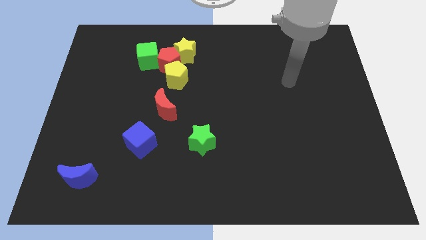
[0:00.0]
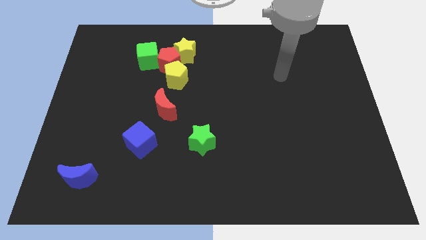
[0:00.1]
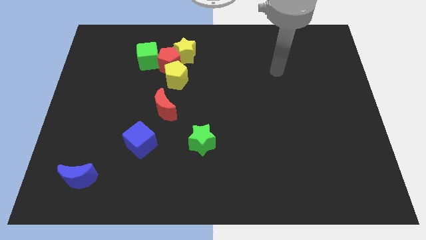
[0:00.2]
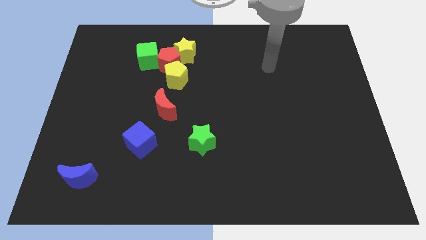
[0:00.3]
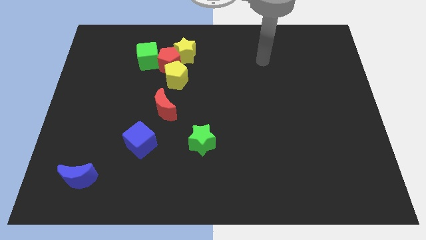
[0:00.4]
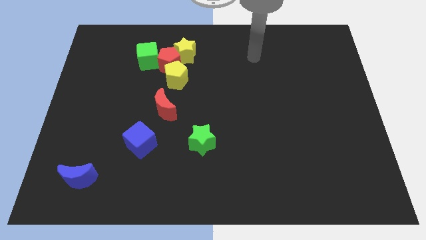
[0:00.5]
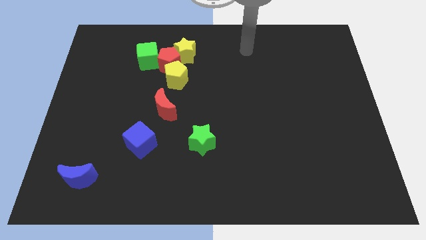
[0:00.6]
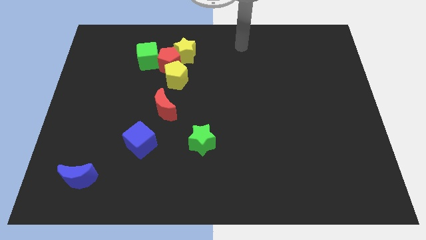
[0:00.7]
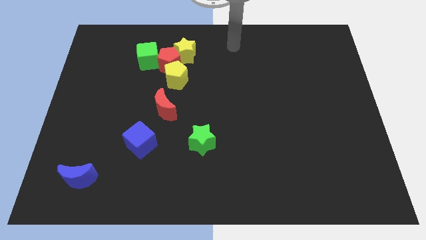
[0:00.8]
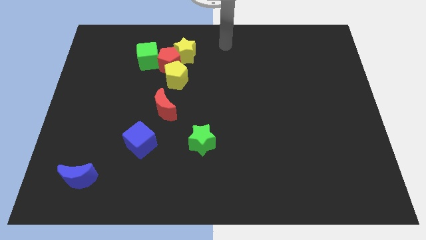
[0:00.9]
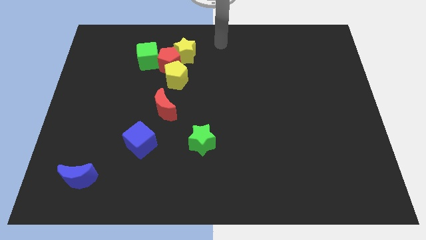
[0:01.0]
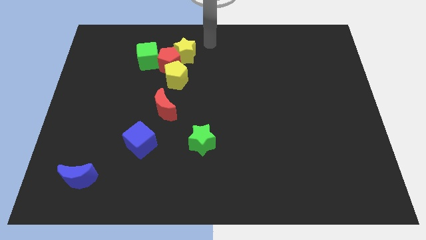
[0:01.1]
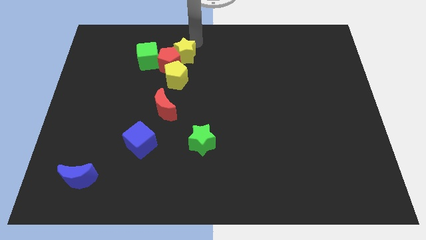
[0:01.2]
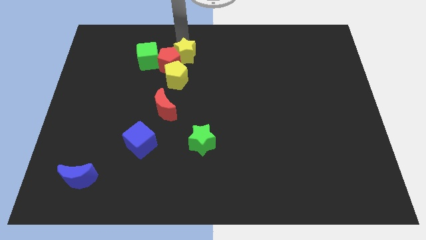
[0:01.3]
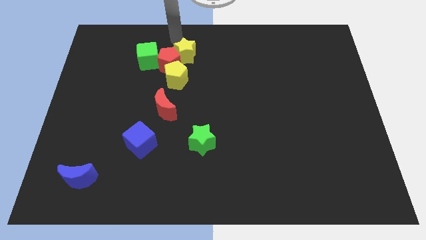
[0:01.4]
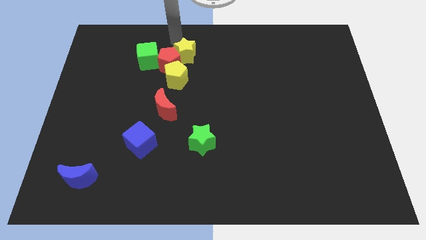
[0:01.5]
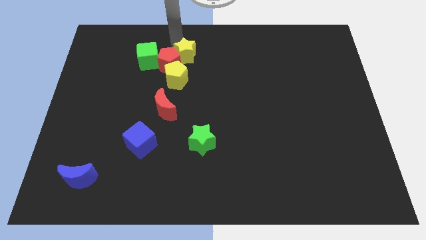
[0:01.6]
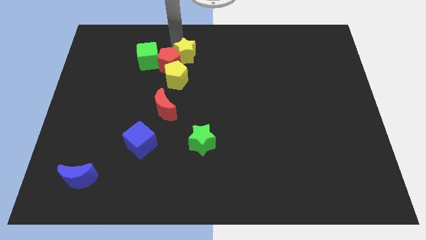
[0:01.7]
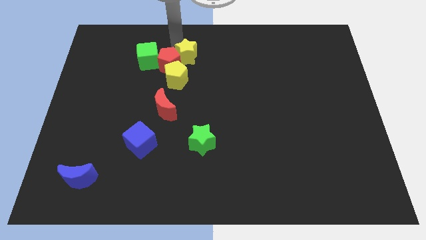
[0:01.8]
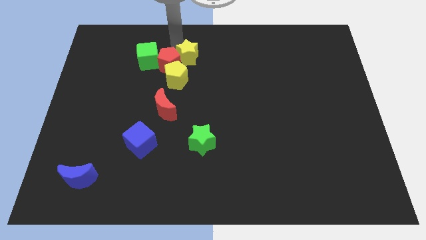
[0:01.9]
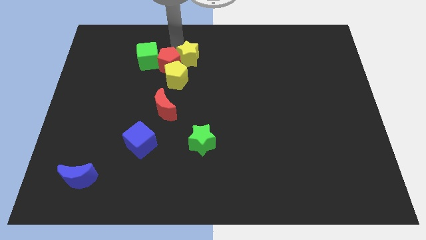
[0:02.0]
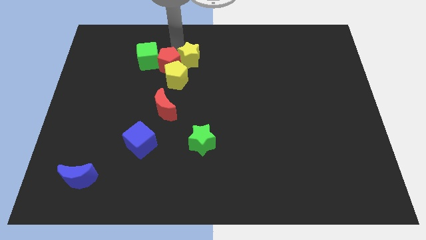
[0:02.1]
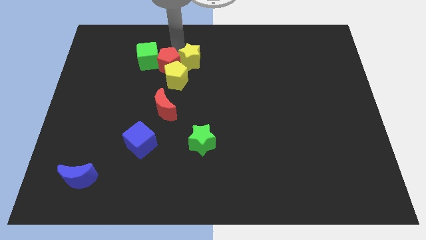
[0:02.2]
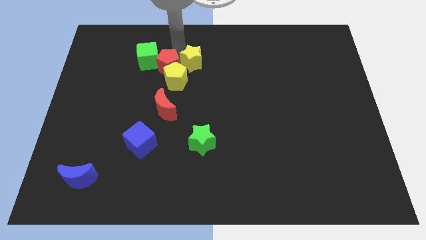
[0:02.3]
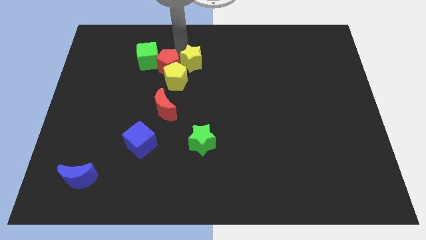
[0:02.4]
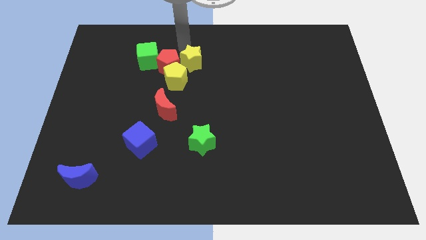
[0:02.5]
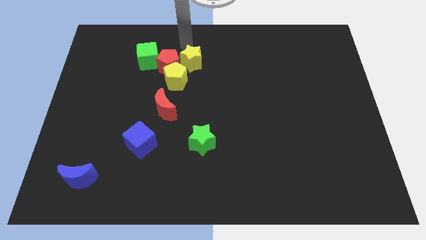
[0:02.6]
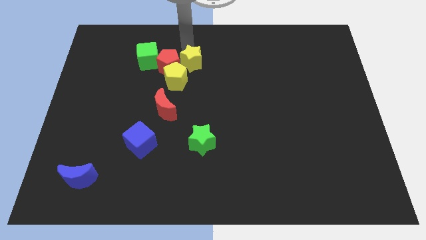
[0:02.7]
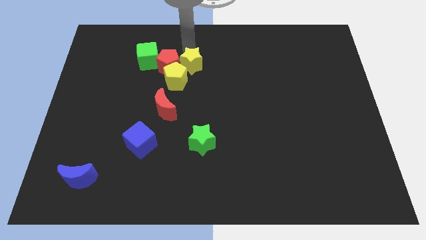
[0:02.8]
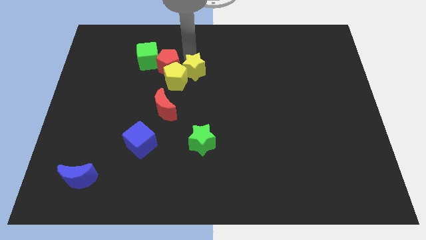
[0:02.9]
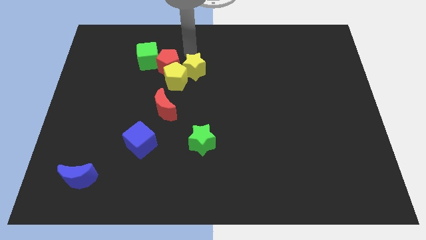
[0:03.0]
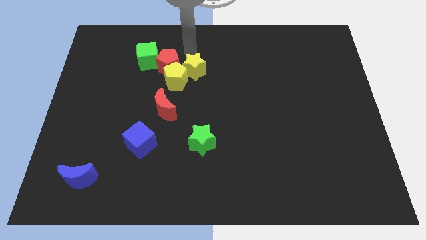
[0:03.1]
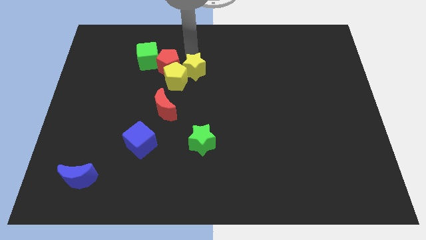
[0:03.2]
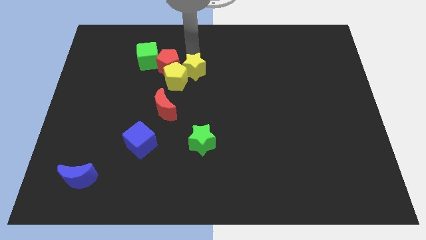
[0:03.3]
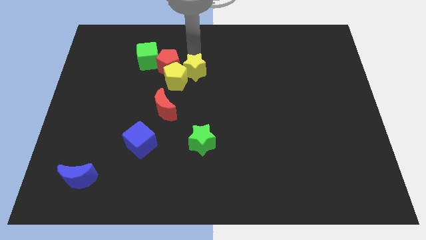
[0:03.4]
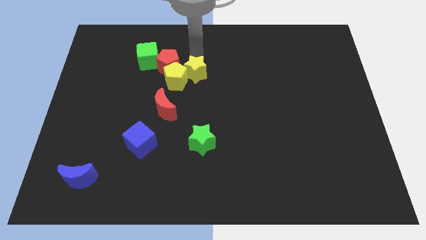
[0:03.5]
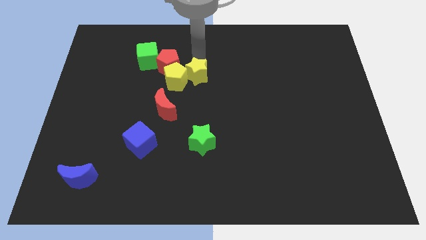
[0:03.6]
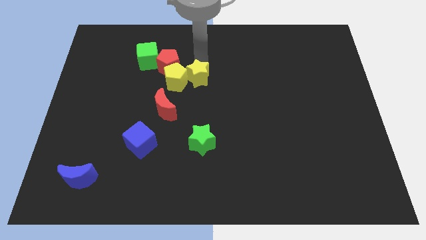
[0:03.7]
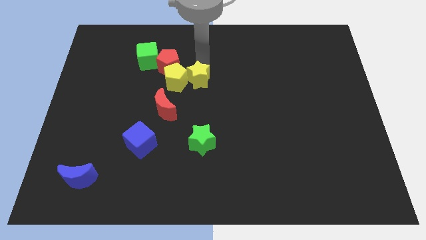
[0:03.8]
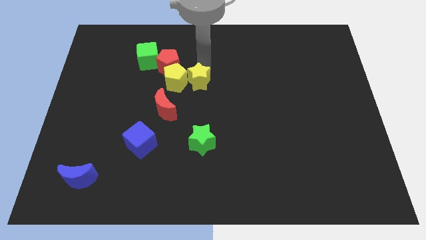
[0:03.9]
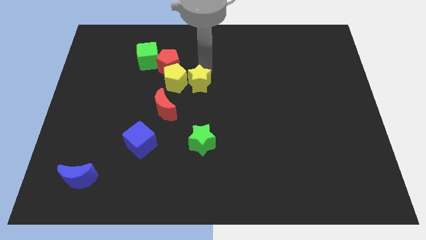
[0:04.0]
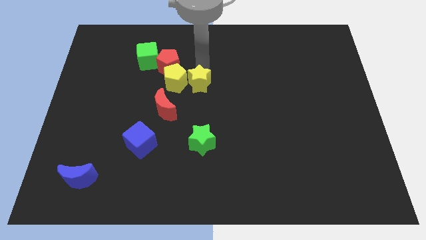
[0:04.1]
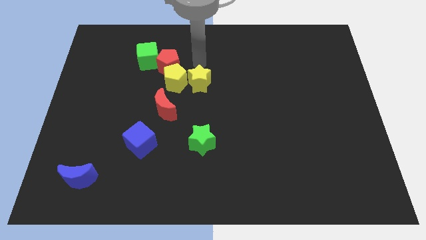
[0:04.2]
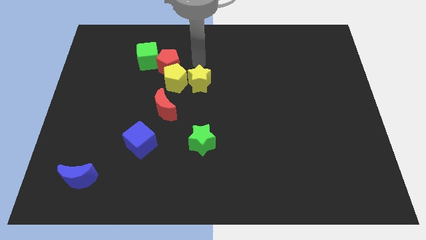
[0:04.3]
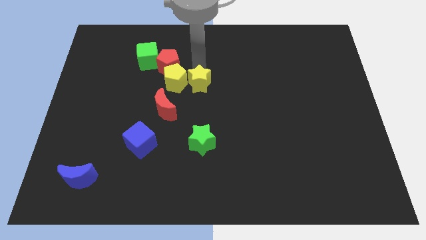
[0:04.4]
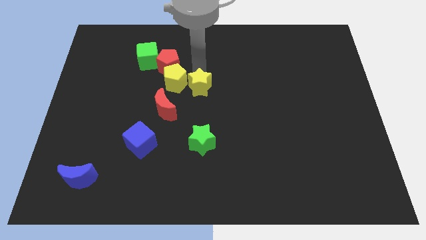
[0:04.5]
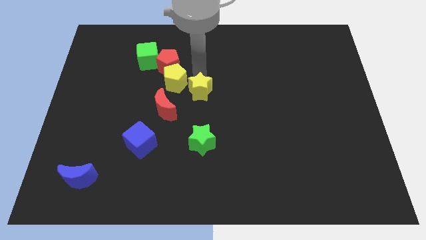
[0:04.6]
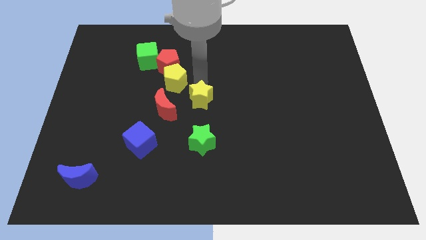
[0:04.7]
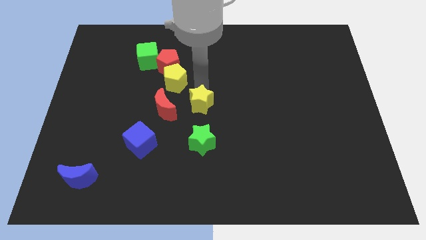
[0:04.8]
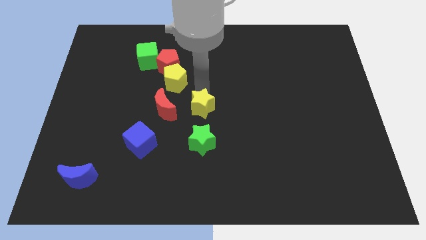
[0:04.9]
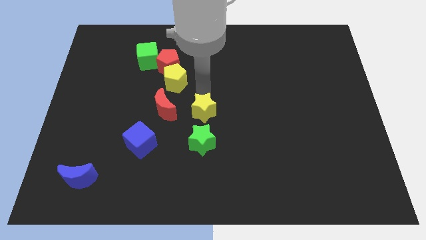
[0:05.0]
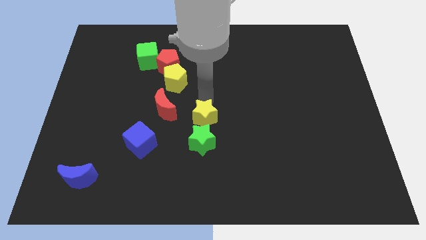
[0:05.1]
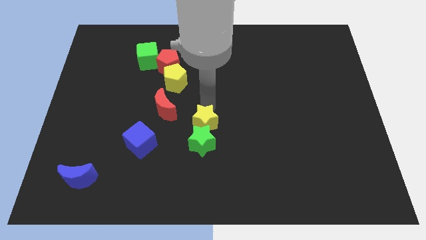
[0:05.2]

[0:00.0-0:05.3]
slide the yellow star downwards

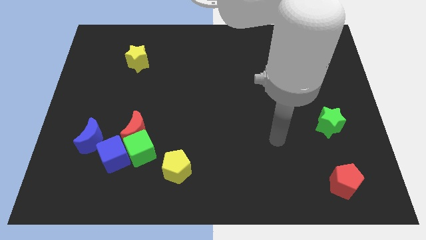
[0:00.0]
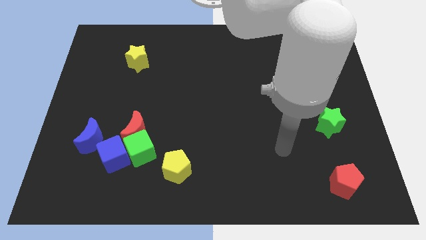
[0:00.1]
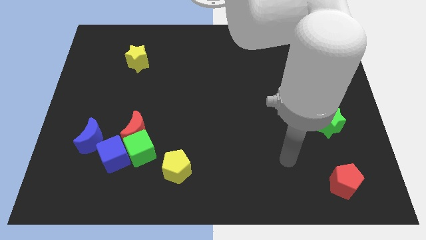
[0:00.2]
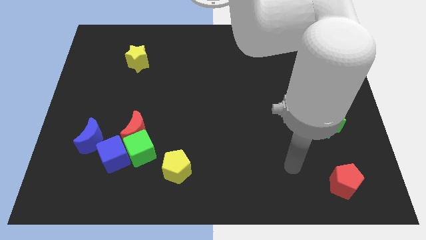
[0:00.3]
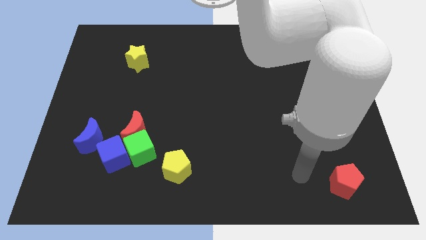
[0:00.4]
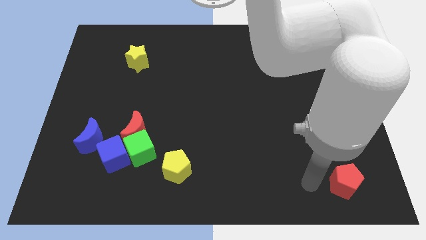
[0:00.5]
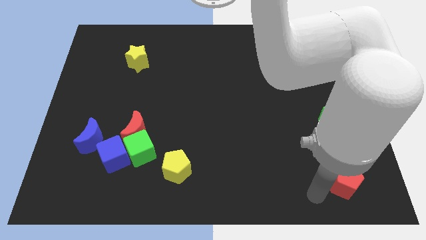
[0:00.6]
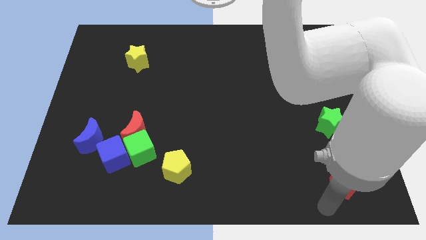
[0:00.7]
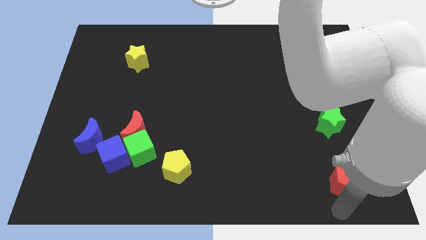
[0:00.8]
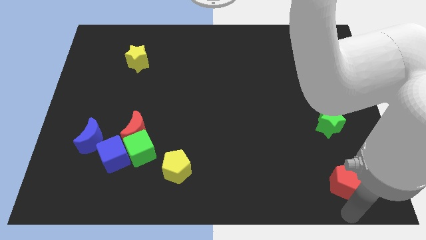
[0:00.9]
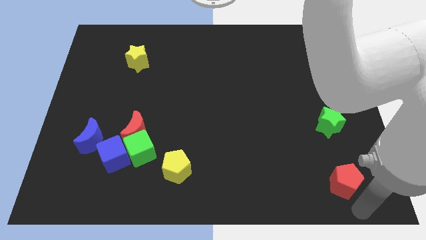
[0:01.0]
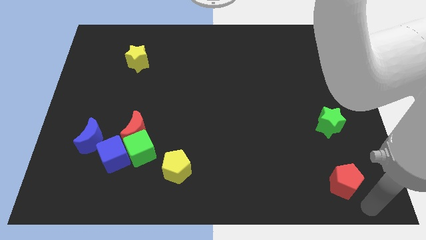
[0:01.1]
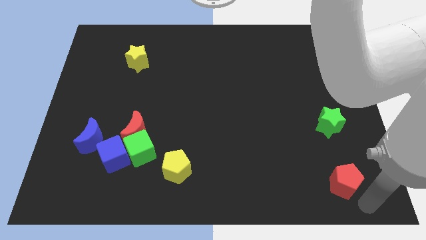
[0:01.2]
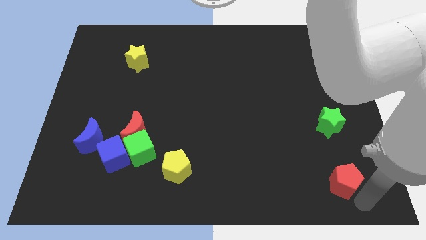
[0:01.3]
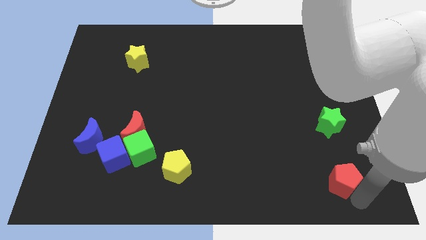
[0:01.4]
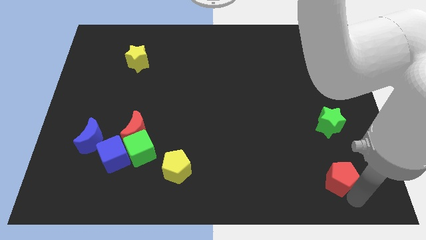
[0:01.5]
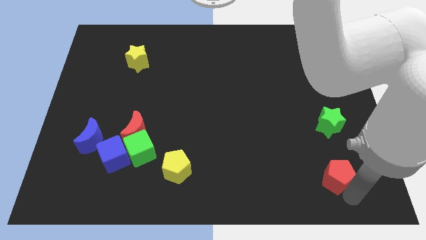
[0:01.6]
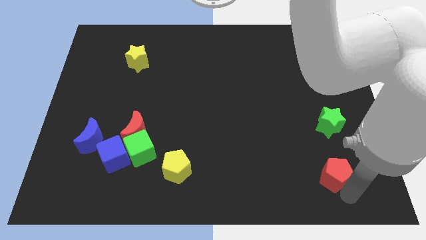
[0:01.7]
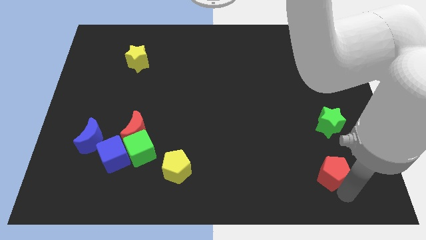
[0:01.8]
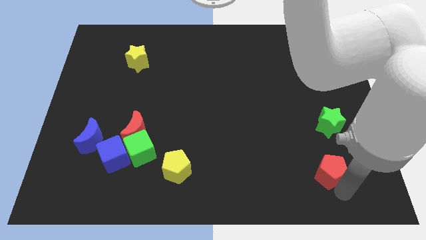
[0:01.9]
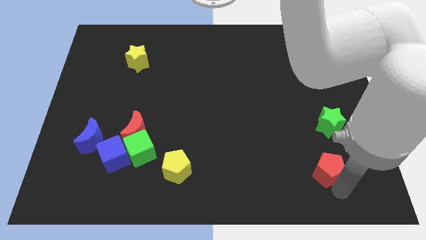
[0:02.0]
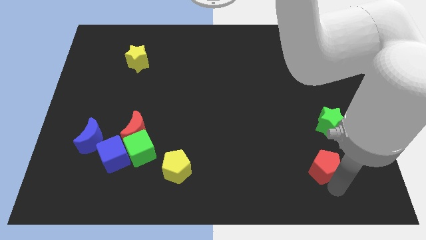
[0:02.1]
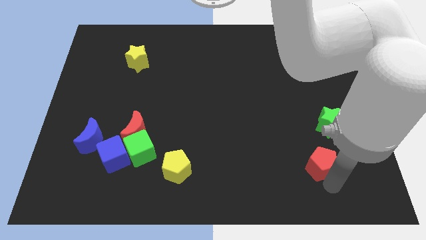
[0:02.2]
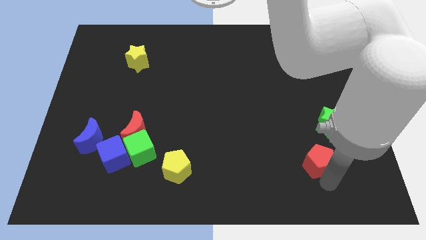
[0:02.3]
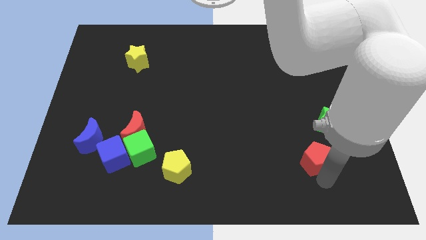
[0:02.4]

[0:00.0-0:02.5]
move the red pentagon up and left slightly

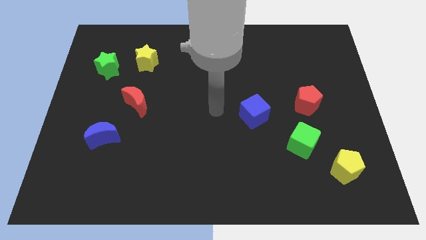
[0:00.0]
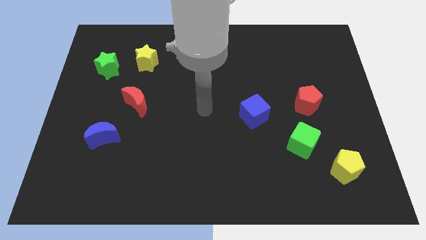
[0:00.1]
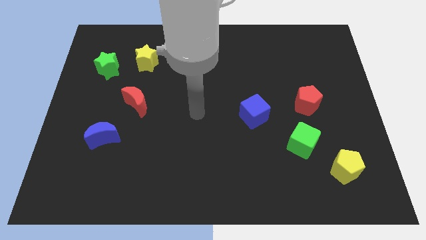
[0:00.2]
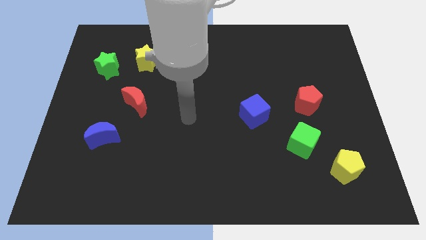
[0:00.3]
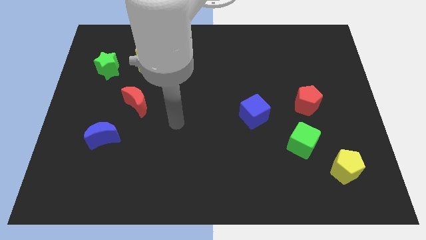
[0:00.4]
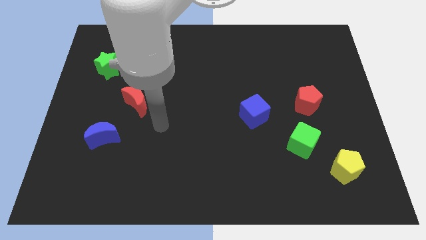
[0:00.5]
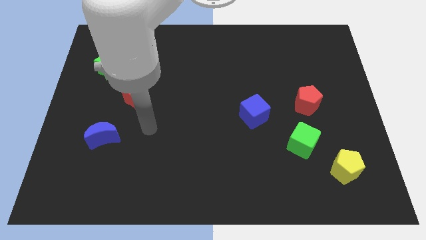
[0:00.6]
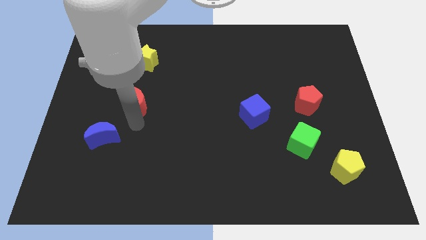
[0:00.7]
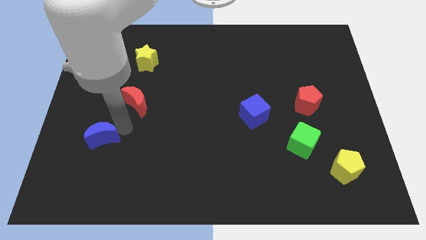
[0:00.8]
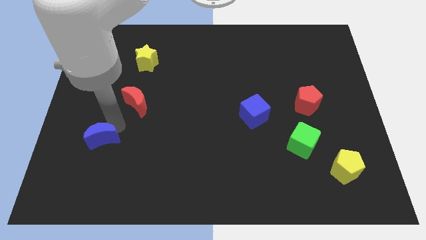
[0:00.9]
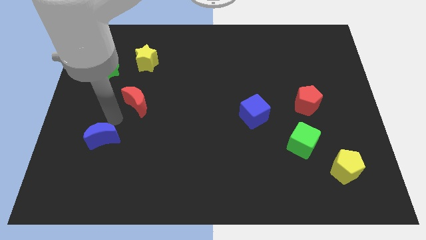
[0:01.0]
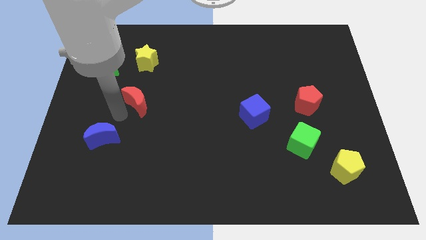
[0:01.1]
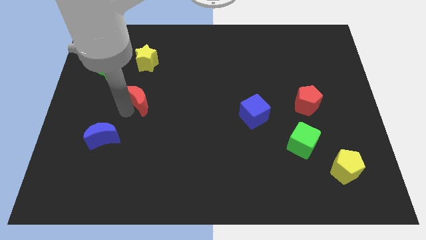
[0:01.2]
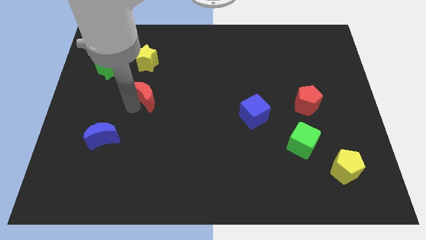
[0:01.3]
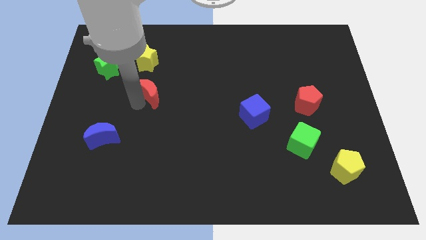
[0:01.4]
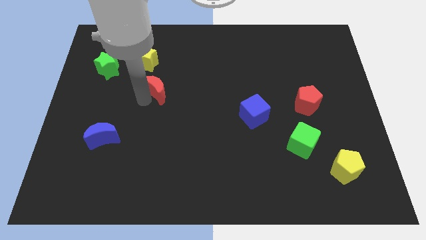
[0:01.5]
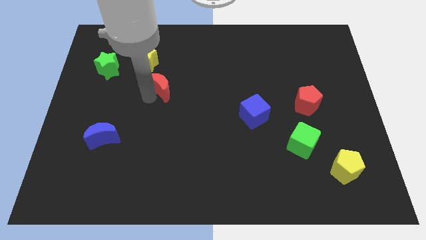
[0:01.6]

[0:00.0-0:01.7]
slightly move the red moon up and to the right
